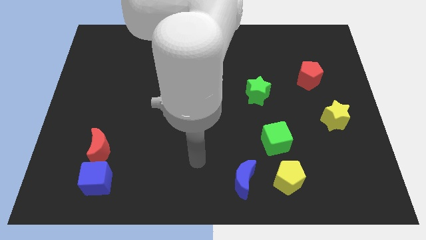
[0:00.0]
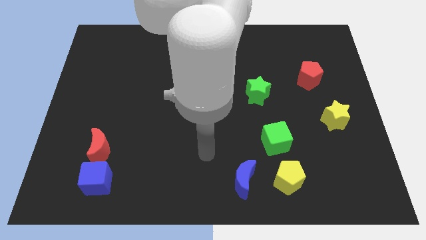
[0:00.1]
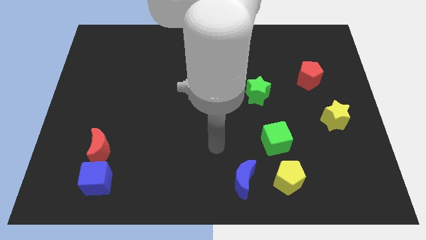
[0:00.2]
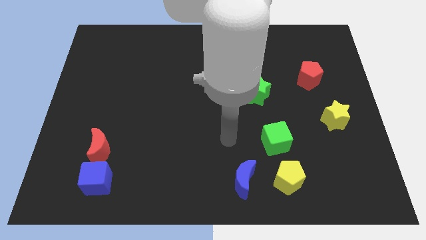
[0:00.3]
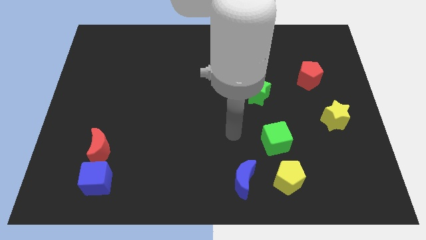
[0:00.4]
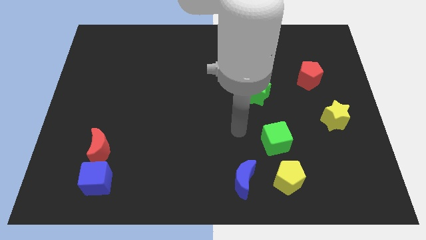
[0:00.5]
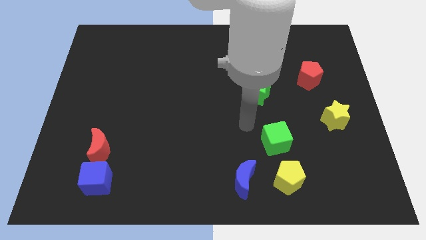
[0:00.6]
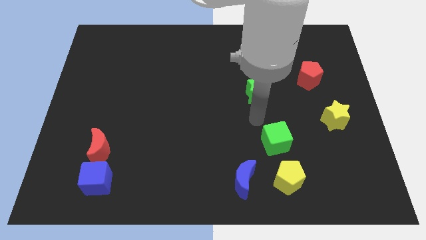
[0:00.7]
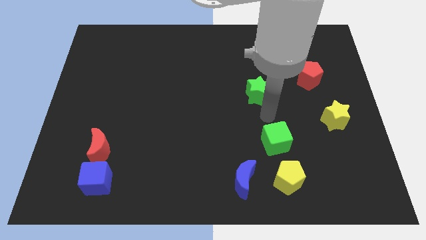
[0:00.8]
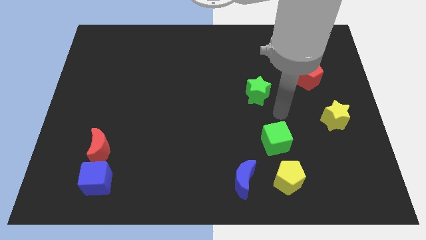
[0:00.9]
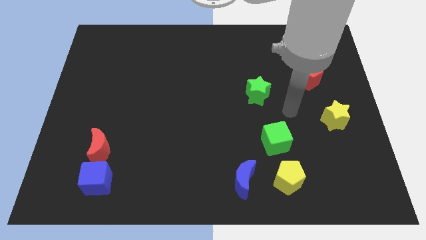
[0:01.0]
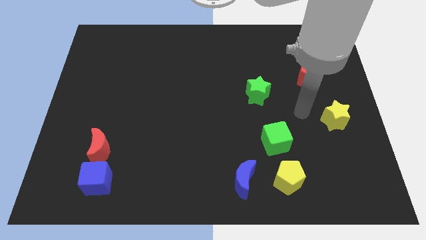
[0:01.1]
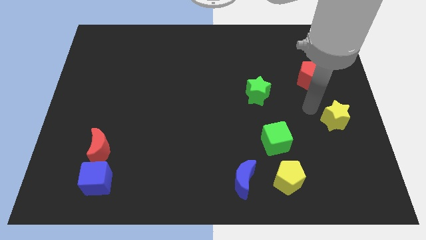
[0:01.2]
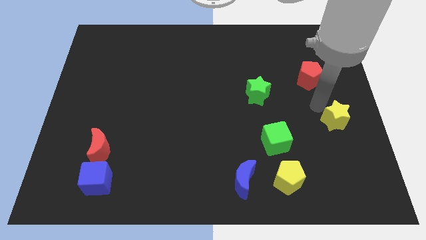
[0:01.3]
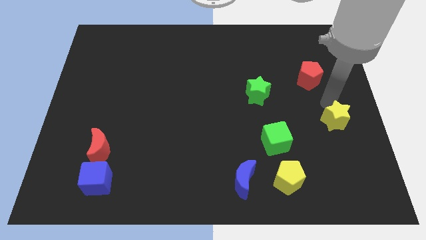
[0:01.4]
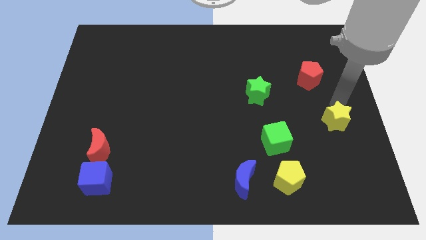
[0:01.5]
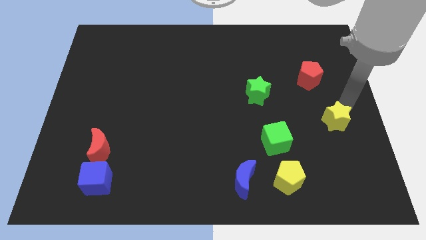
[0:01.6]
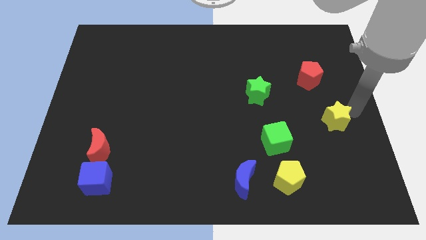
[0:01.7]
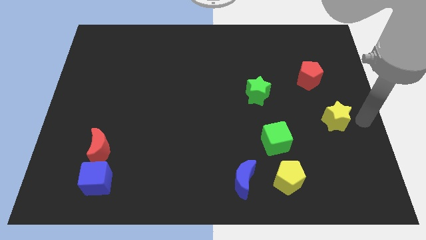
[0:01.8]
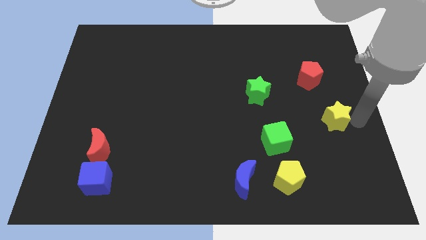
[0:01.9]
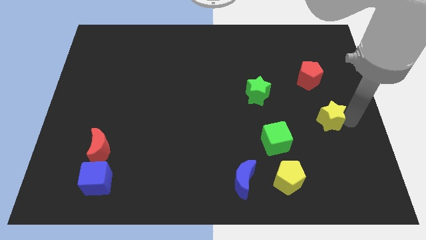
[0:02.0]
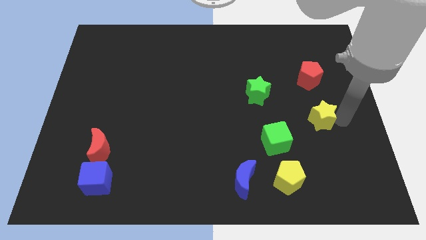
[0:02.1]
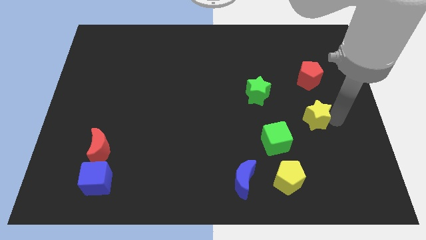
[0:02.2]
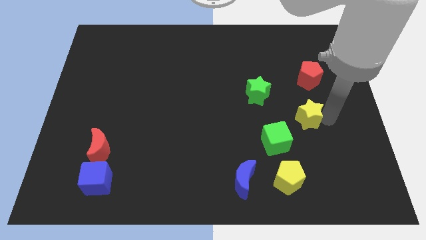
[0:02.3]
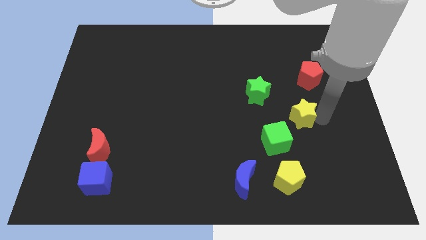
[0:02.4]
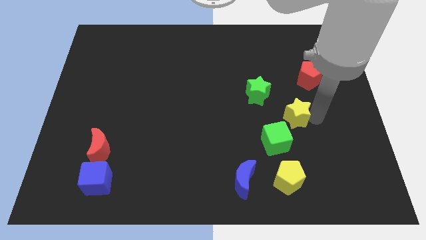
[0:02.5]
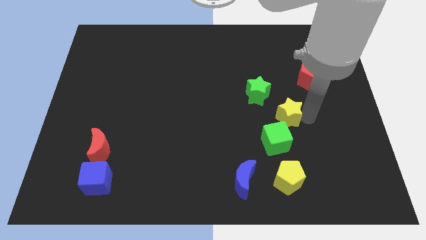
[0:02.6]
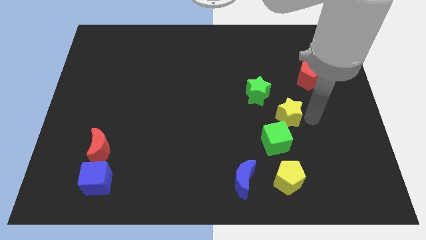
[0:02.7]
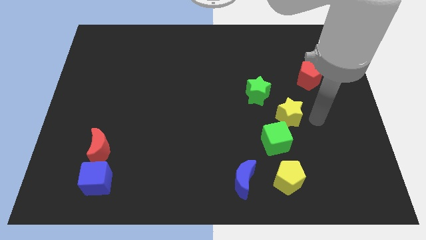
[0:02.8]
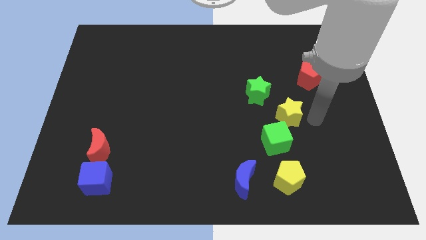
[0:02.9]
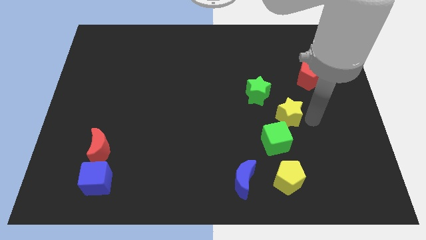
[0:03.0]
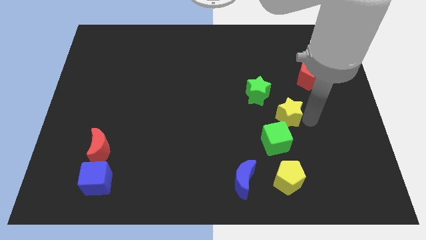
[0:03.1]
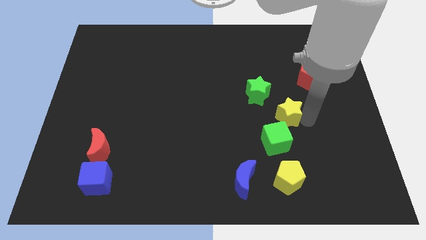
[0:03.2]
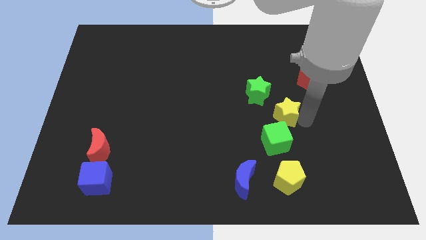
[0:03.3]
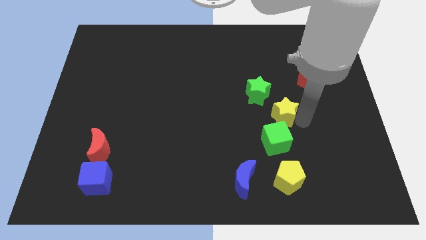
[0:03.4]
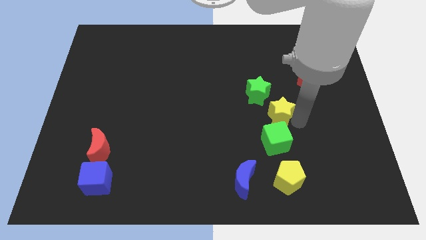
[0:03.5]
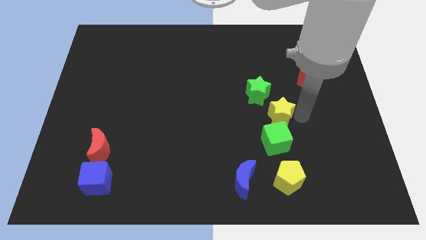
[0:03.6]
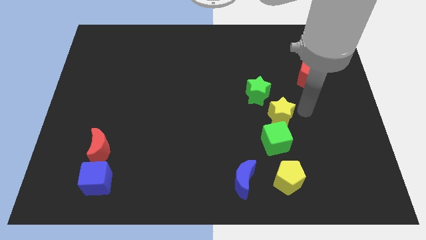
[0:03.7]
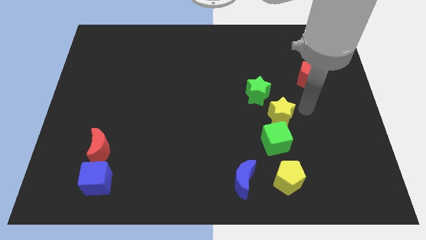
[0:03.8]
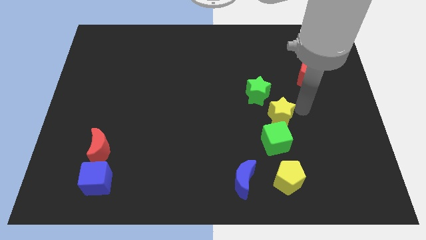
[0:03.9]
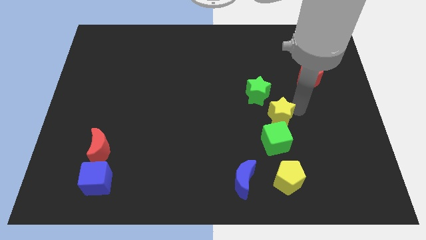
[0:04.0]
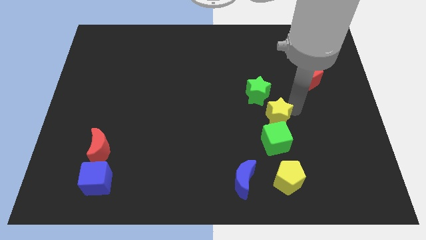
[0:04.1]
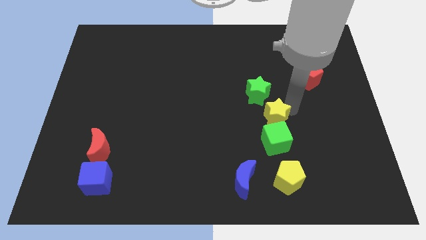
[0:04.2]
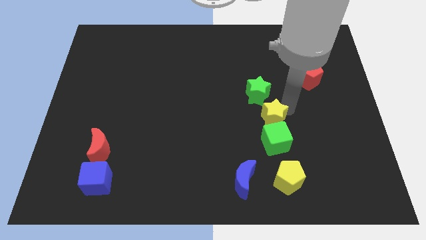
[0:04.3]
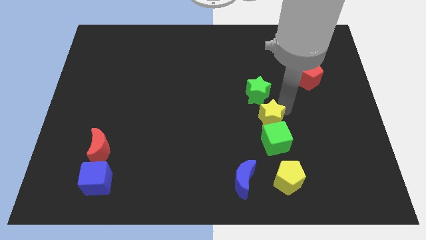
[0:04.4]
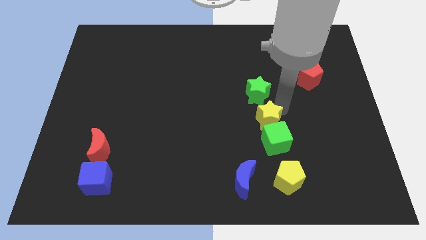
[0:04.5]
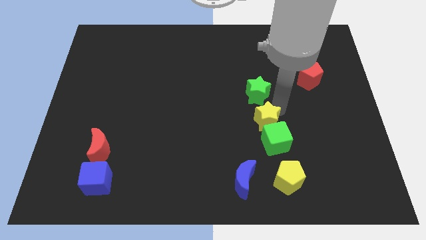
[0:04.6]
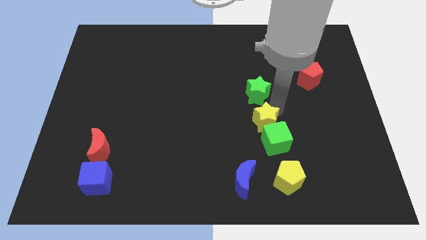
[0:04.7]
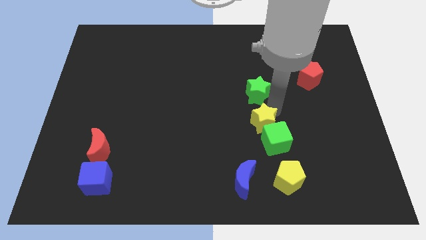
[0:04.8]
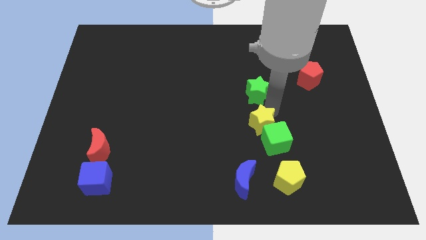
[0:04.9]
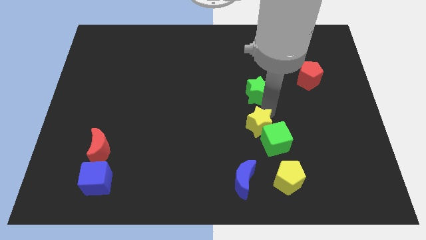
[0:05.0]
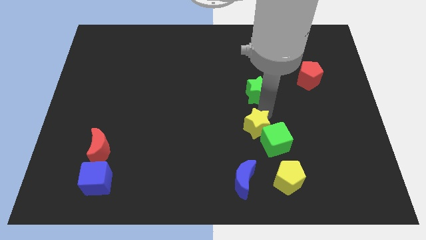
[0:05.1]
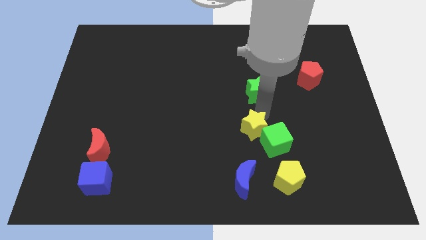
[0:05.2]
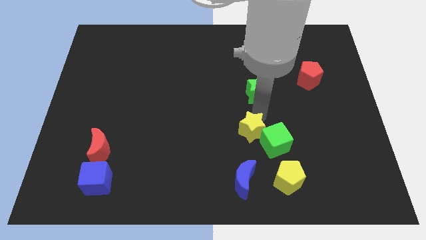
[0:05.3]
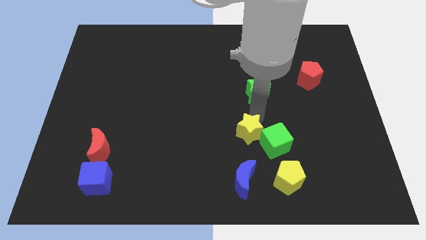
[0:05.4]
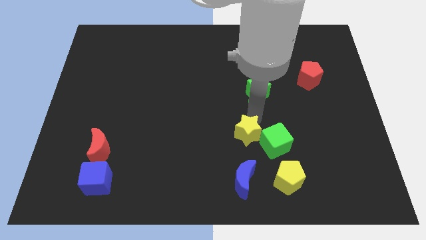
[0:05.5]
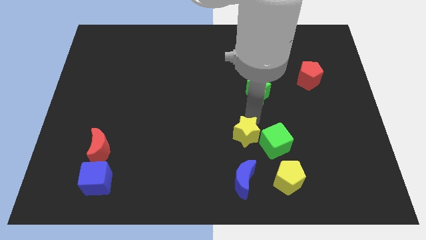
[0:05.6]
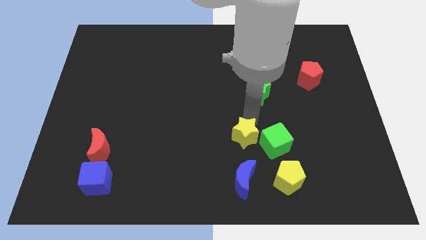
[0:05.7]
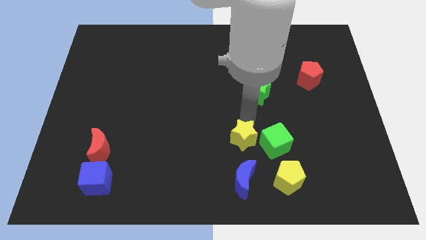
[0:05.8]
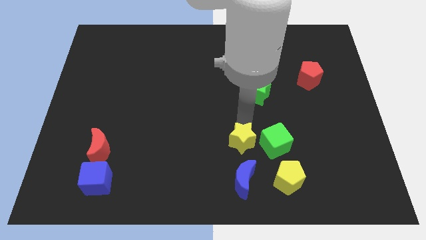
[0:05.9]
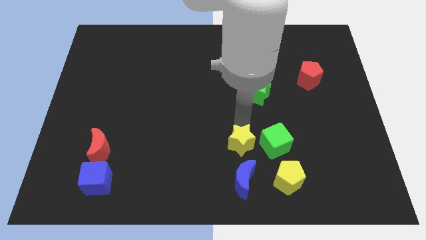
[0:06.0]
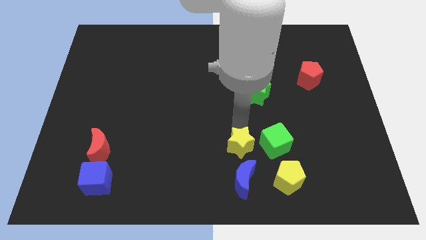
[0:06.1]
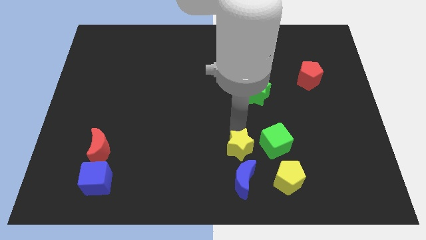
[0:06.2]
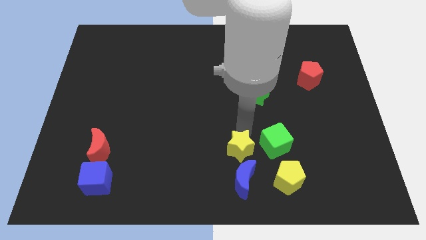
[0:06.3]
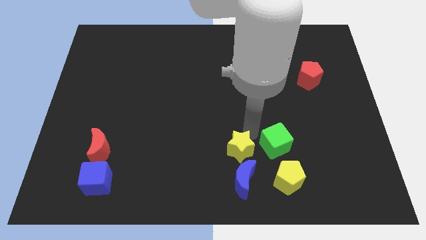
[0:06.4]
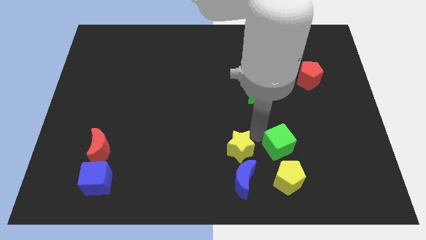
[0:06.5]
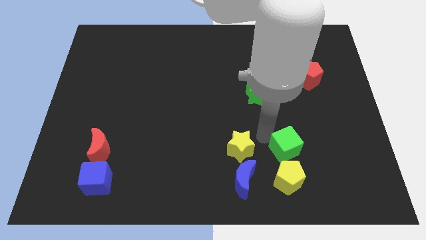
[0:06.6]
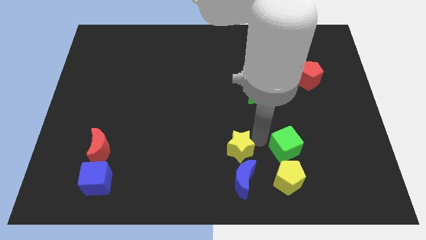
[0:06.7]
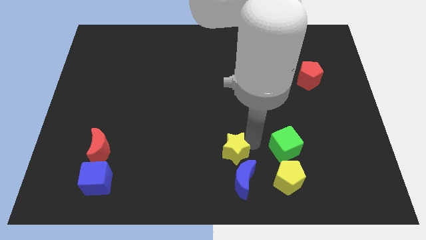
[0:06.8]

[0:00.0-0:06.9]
push the yellow star to the top left of the blue moon
